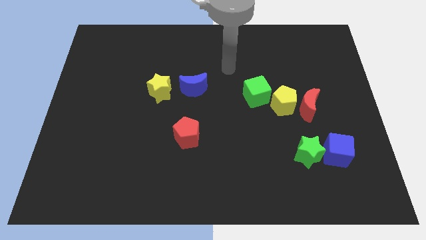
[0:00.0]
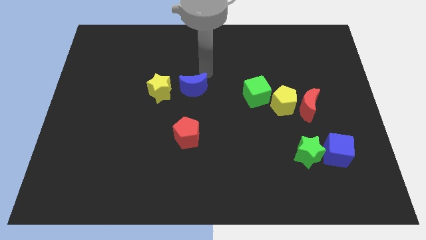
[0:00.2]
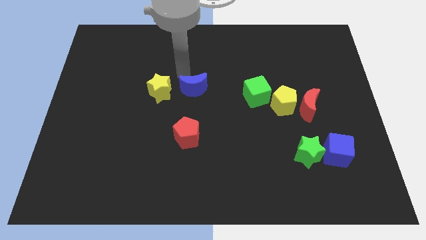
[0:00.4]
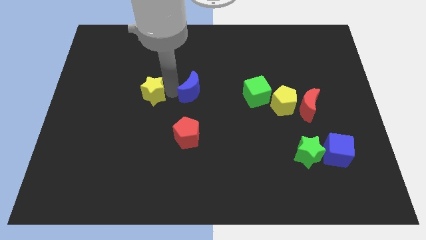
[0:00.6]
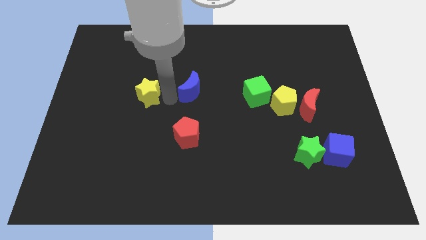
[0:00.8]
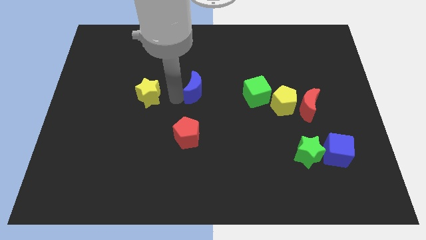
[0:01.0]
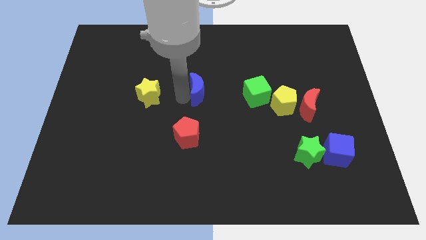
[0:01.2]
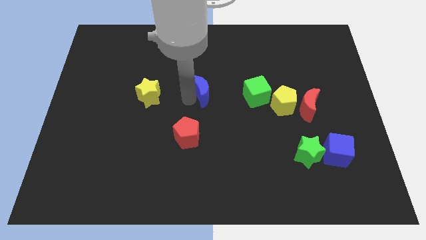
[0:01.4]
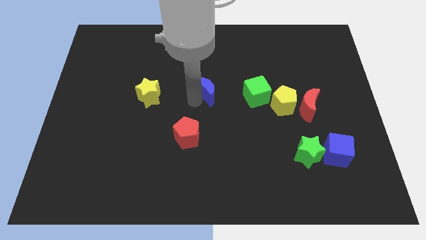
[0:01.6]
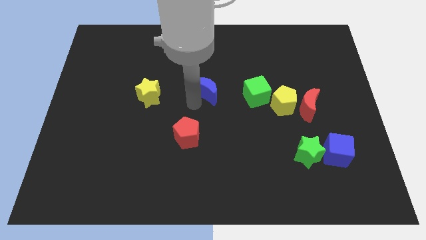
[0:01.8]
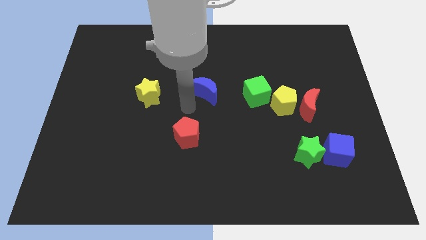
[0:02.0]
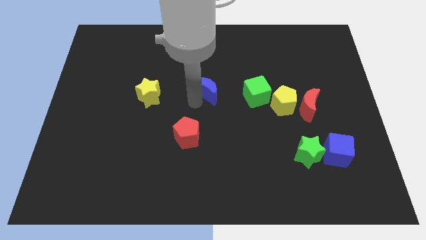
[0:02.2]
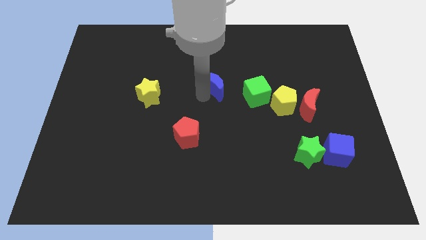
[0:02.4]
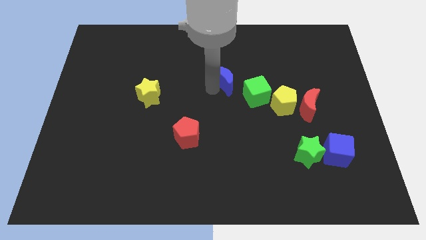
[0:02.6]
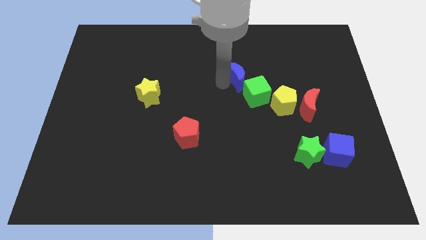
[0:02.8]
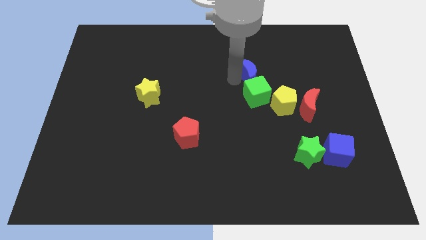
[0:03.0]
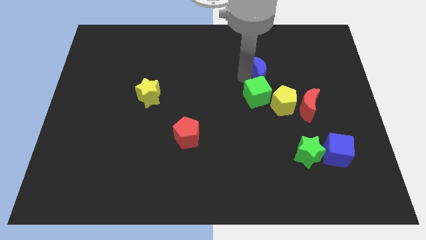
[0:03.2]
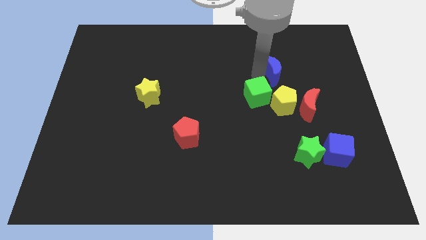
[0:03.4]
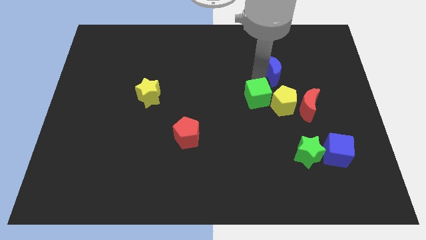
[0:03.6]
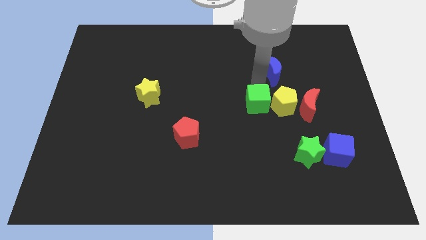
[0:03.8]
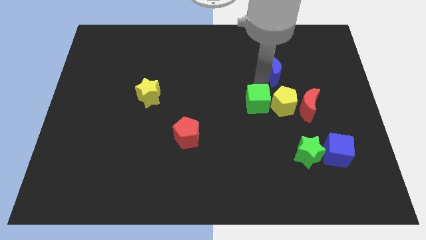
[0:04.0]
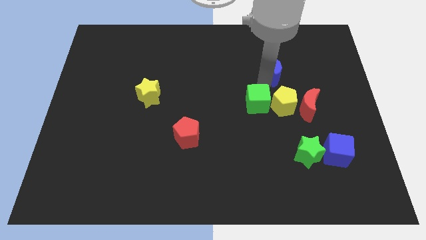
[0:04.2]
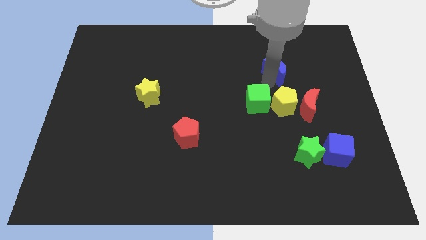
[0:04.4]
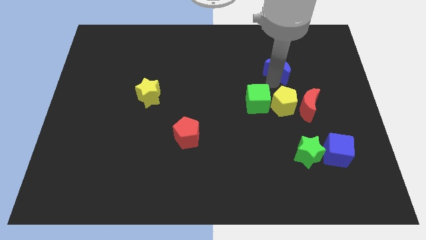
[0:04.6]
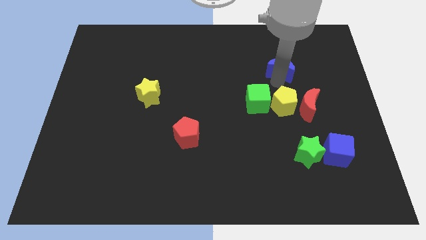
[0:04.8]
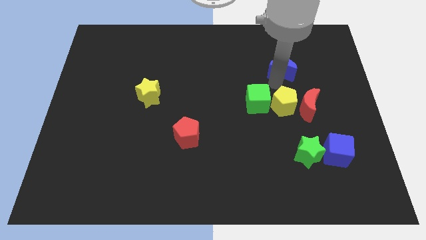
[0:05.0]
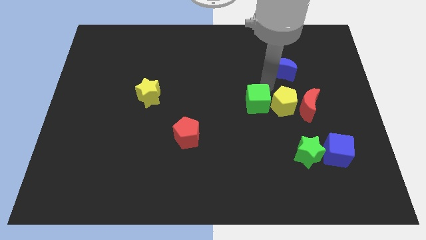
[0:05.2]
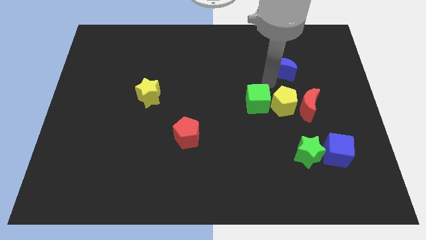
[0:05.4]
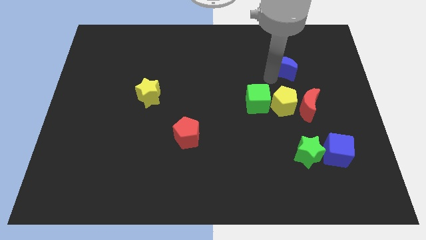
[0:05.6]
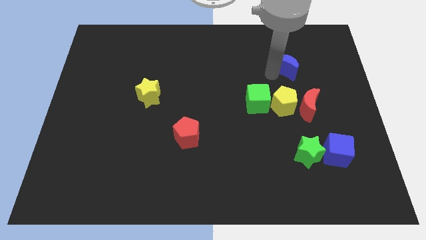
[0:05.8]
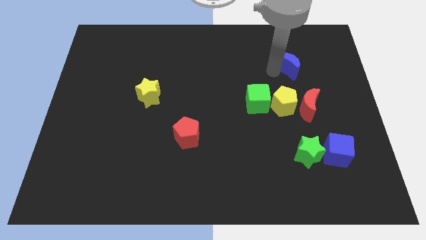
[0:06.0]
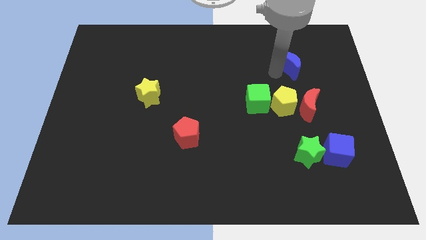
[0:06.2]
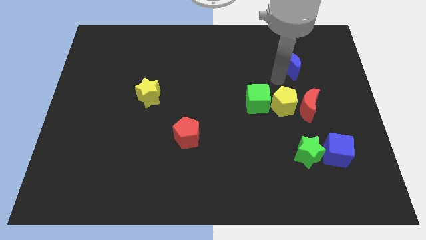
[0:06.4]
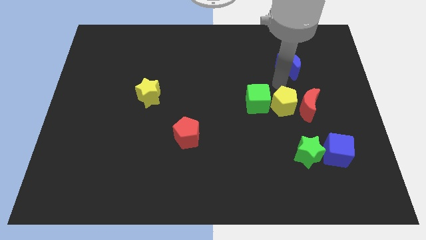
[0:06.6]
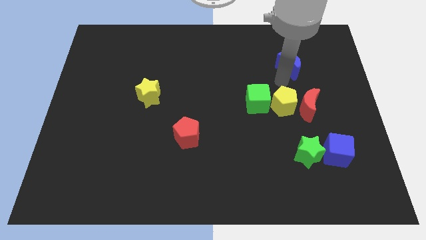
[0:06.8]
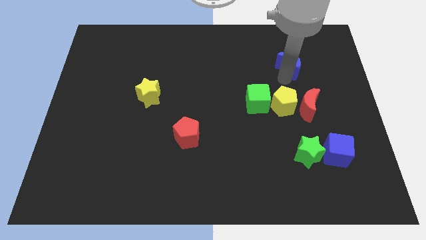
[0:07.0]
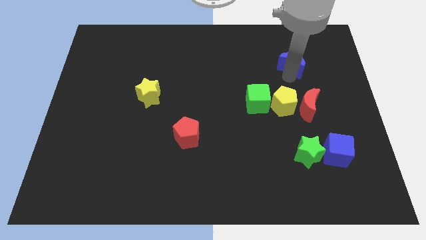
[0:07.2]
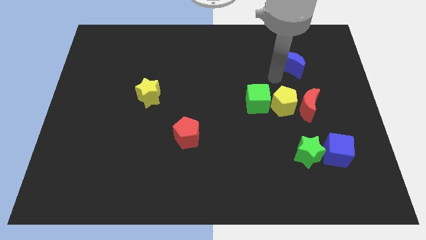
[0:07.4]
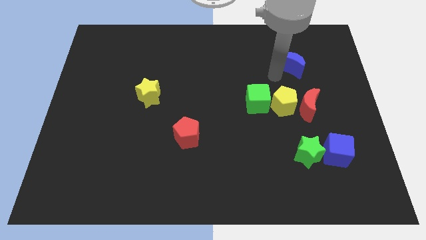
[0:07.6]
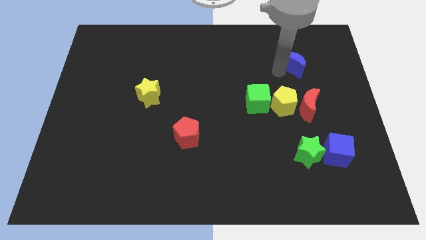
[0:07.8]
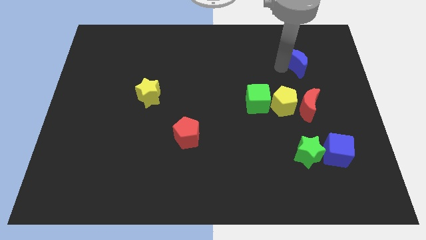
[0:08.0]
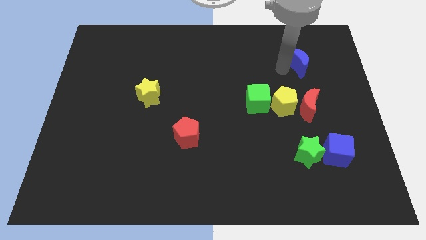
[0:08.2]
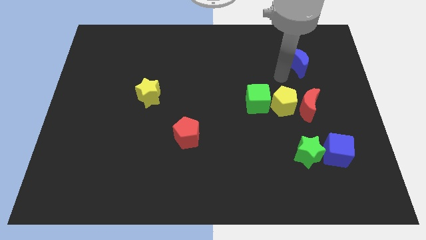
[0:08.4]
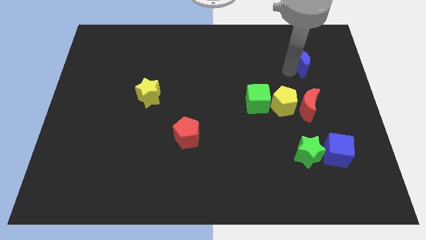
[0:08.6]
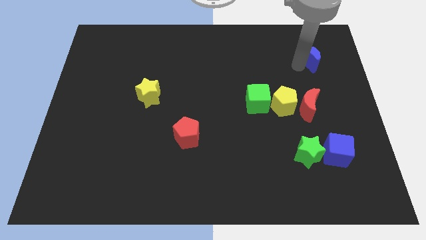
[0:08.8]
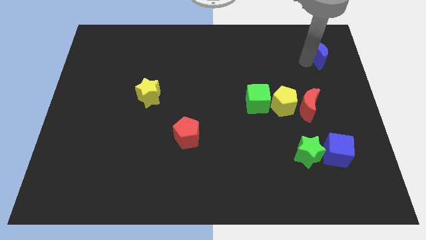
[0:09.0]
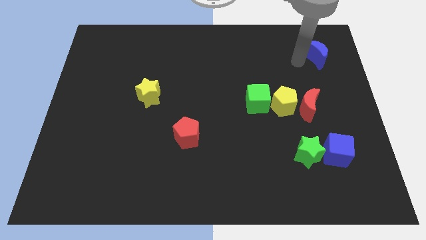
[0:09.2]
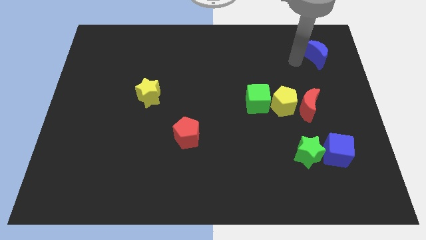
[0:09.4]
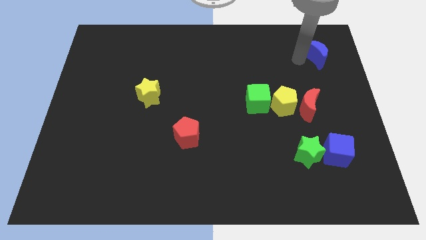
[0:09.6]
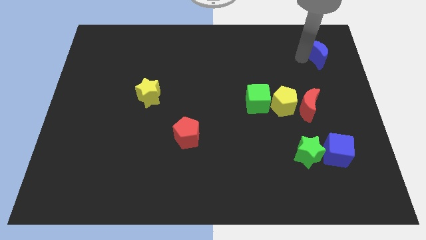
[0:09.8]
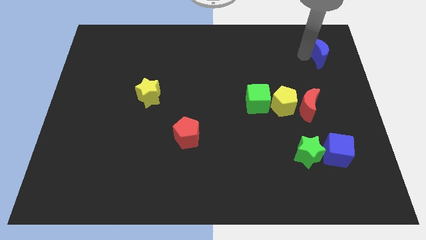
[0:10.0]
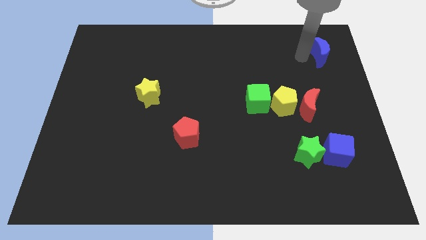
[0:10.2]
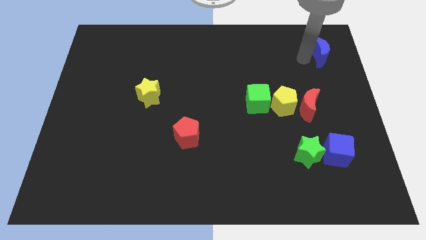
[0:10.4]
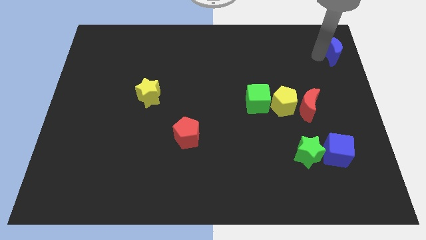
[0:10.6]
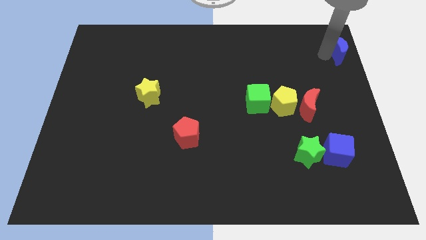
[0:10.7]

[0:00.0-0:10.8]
move the blue moon to the upper right corner

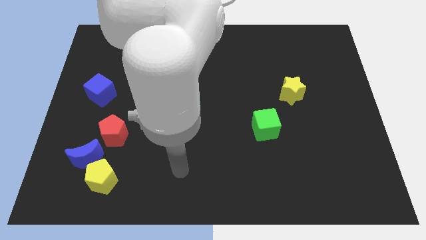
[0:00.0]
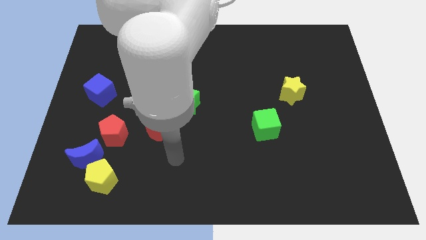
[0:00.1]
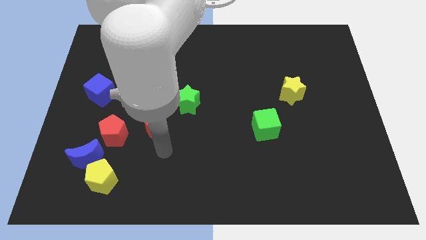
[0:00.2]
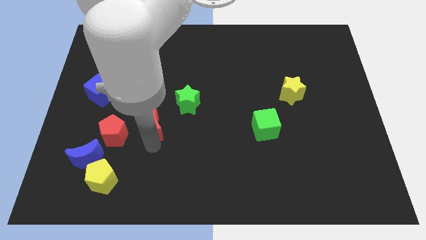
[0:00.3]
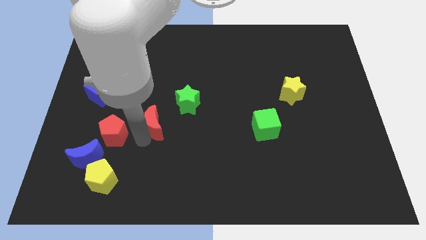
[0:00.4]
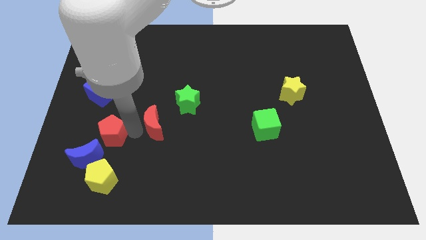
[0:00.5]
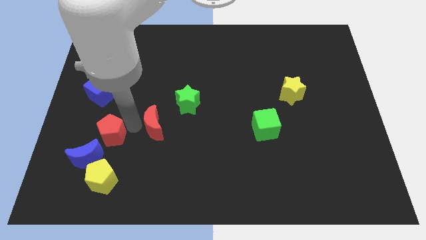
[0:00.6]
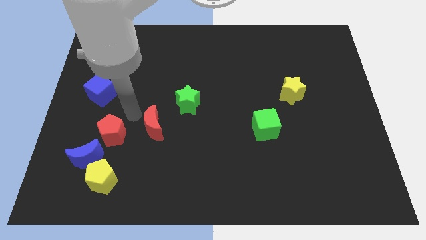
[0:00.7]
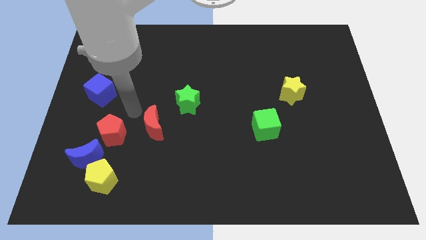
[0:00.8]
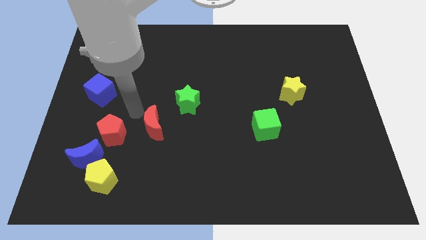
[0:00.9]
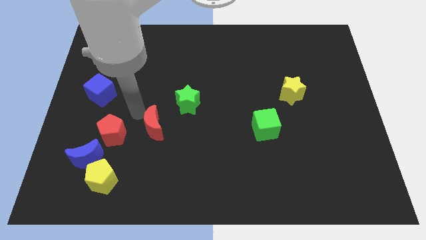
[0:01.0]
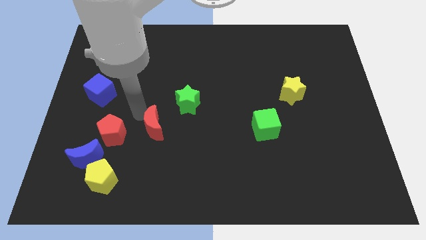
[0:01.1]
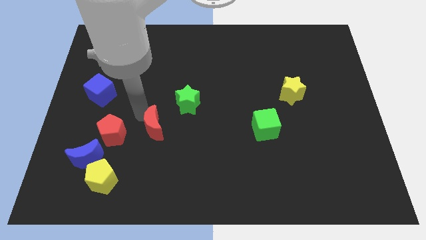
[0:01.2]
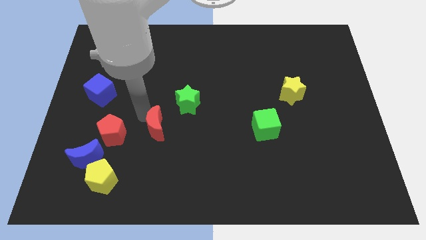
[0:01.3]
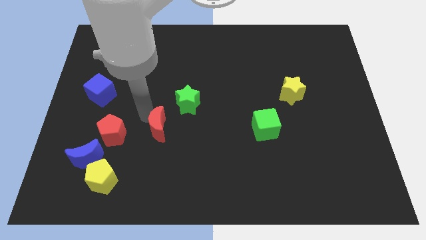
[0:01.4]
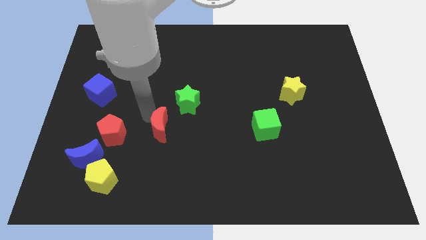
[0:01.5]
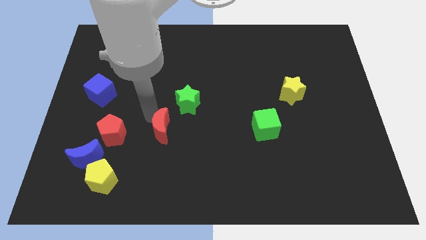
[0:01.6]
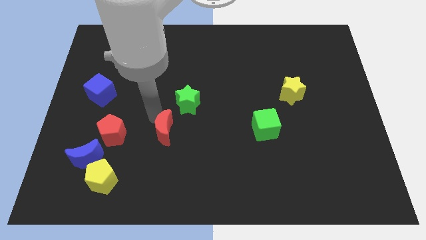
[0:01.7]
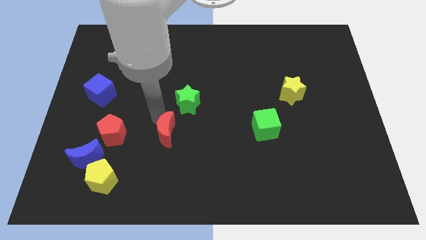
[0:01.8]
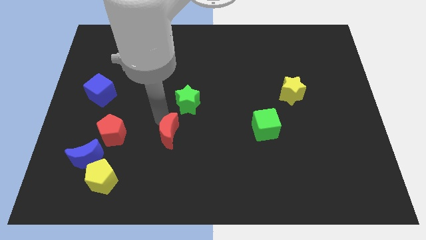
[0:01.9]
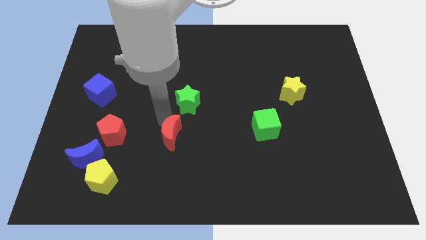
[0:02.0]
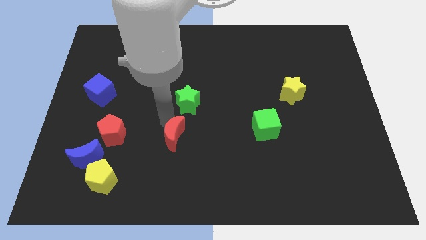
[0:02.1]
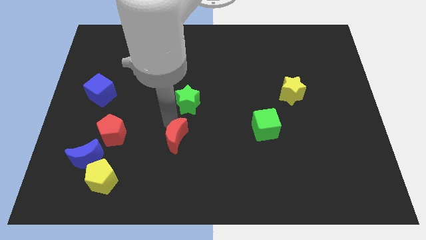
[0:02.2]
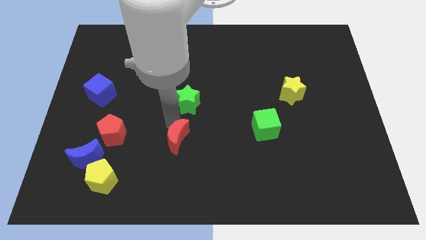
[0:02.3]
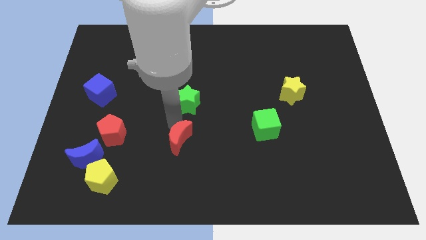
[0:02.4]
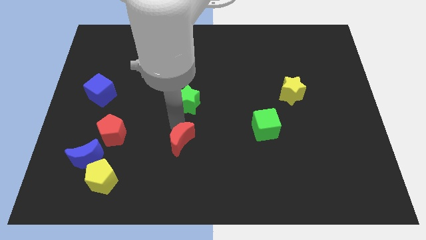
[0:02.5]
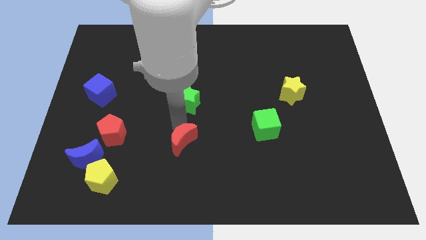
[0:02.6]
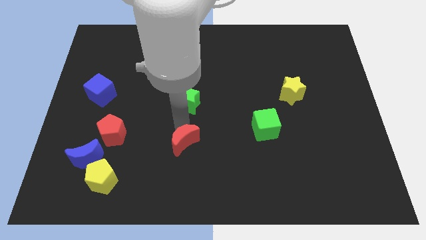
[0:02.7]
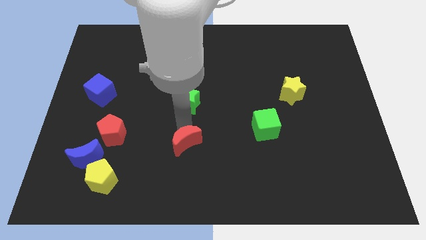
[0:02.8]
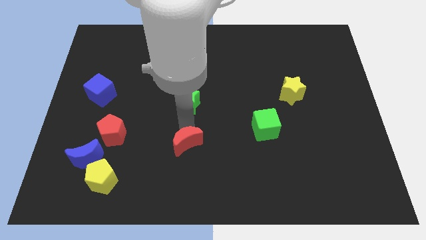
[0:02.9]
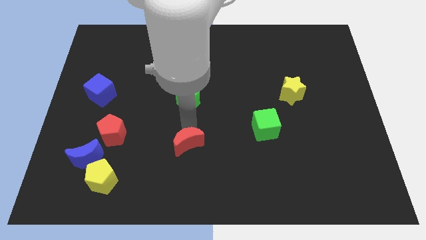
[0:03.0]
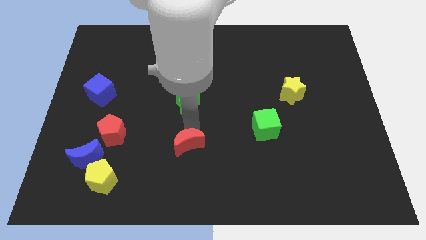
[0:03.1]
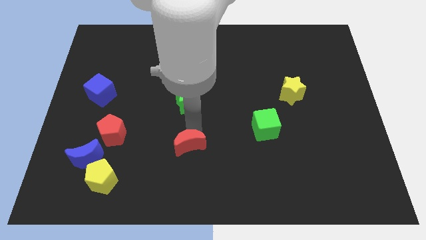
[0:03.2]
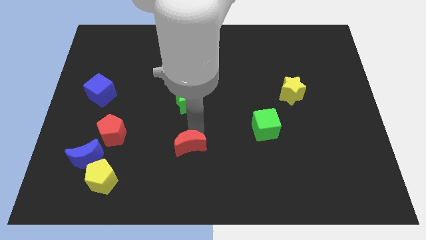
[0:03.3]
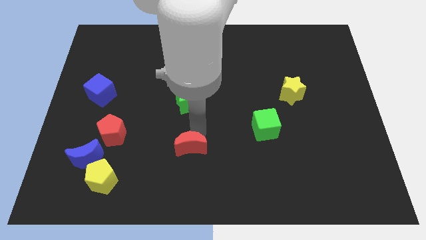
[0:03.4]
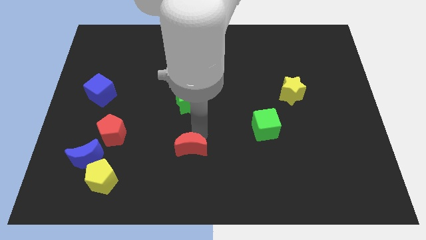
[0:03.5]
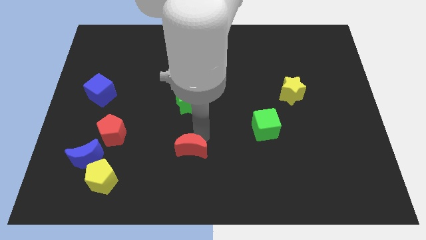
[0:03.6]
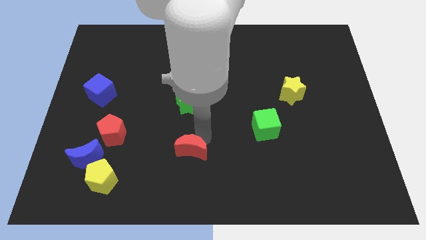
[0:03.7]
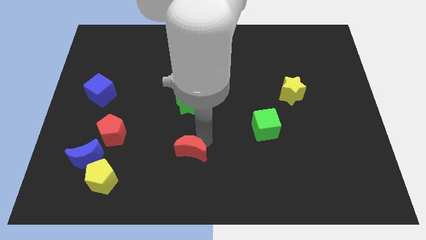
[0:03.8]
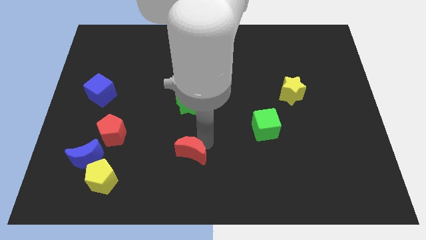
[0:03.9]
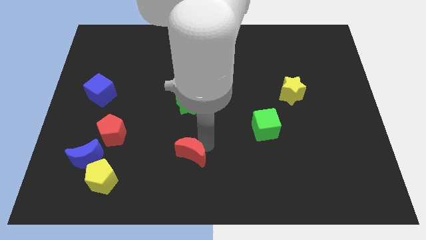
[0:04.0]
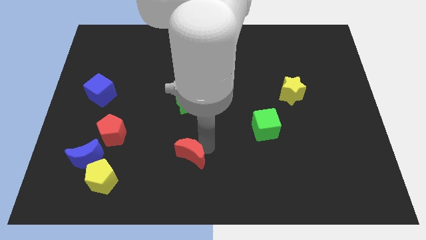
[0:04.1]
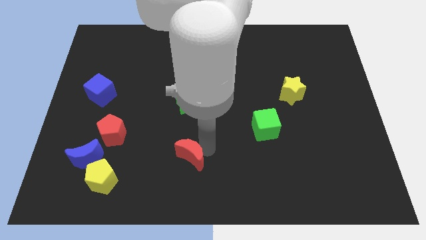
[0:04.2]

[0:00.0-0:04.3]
put the red moon to the bottom side
